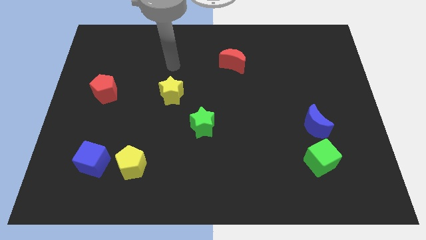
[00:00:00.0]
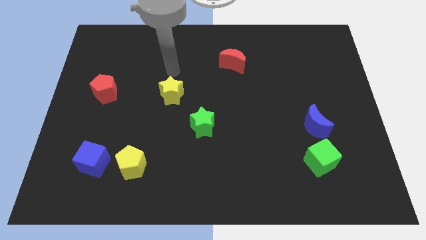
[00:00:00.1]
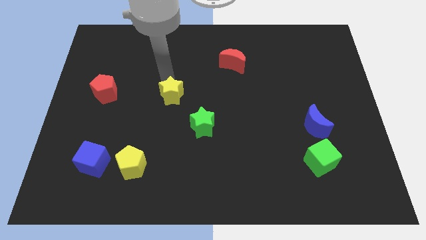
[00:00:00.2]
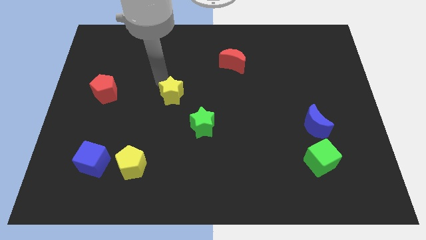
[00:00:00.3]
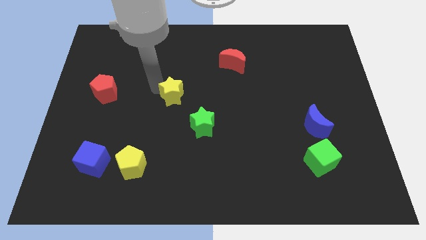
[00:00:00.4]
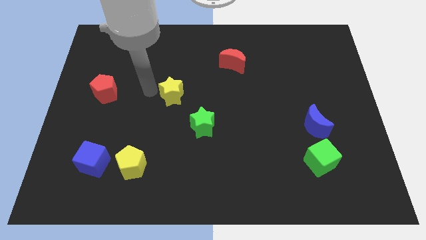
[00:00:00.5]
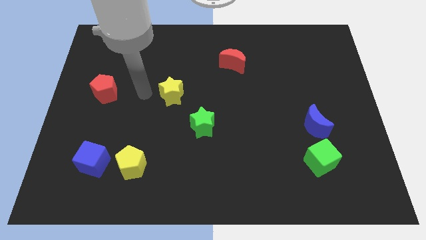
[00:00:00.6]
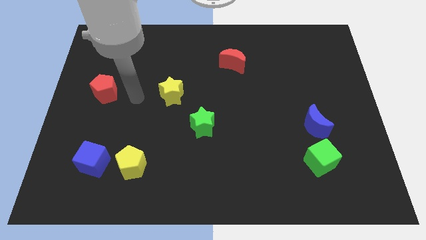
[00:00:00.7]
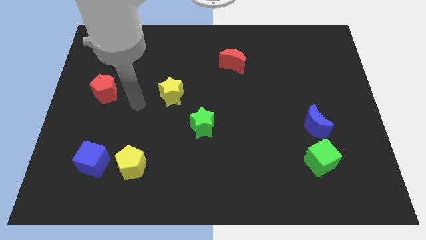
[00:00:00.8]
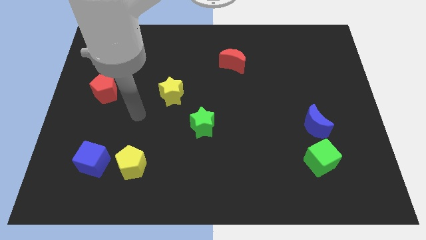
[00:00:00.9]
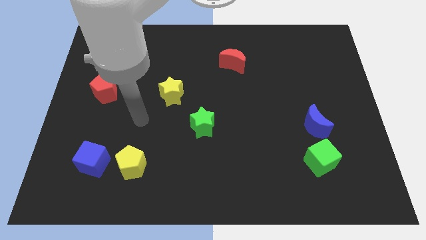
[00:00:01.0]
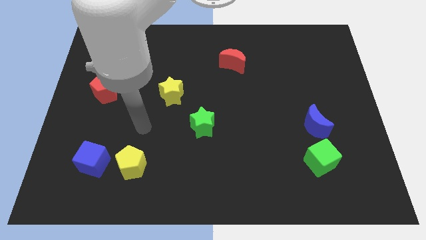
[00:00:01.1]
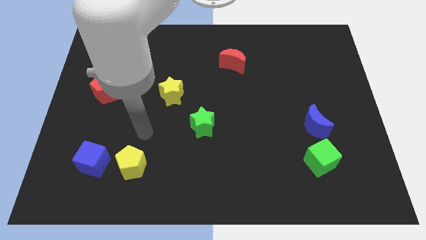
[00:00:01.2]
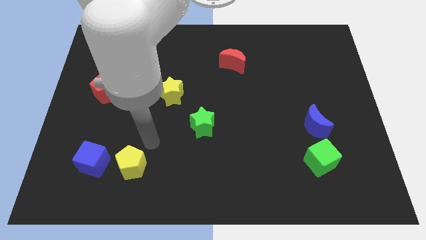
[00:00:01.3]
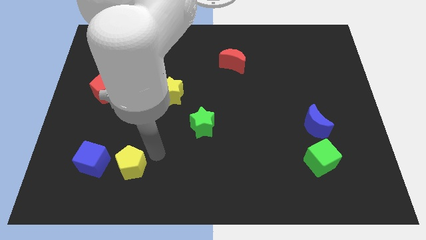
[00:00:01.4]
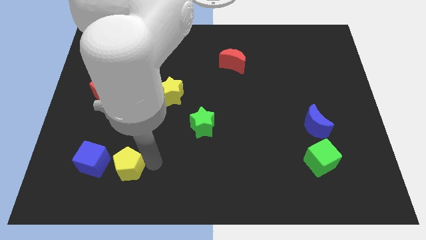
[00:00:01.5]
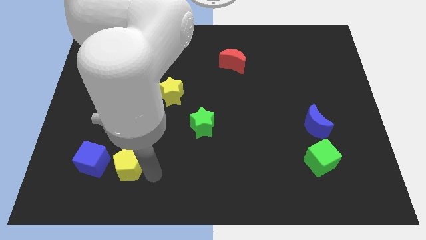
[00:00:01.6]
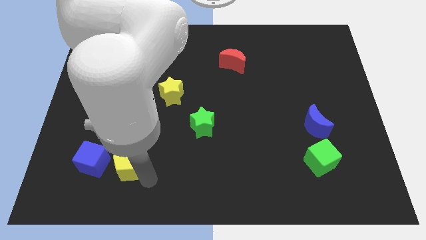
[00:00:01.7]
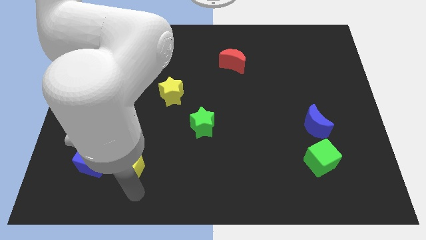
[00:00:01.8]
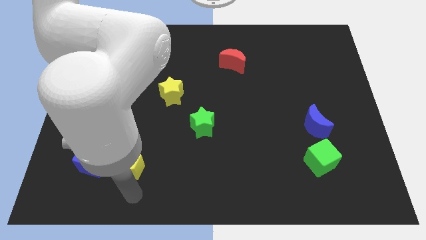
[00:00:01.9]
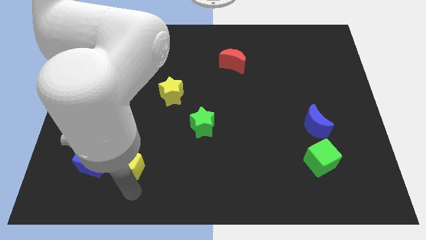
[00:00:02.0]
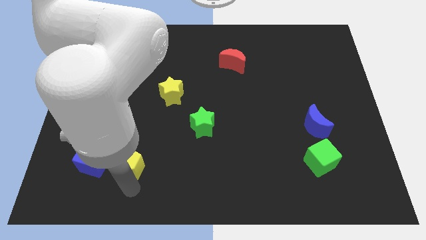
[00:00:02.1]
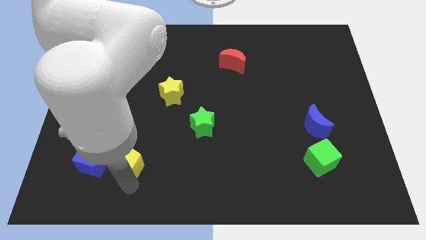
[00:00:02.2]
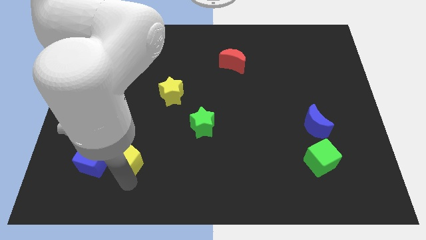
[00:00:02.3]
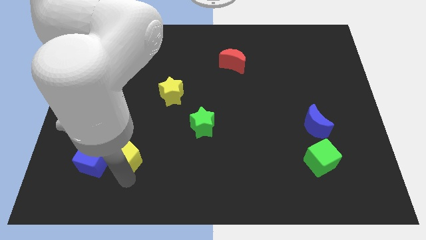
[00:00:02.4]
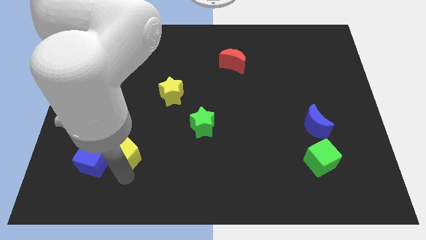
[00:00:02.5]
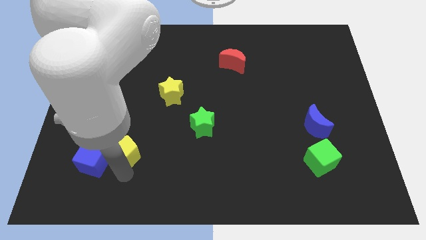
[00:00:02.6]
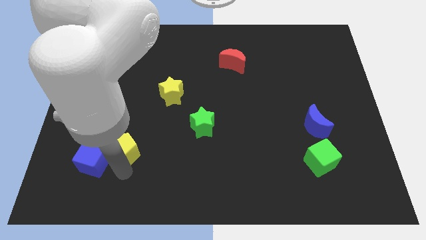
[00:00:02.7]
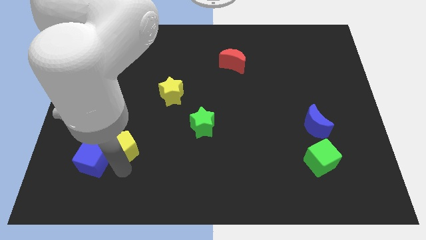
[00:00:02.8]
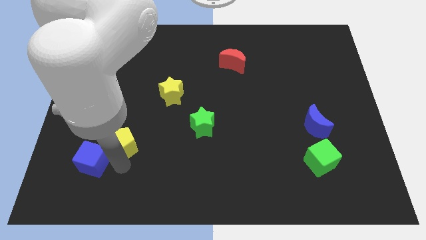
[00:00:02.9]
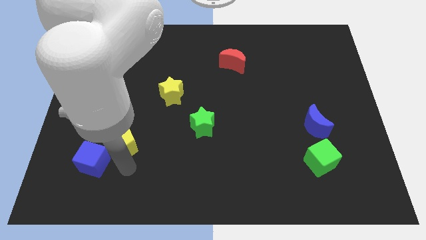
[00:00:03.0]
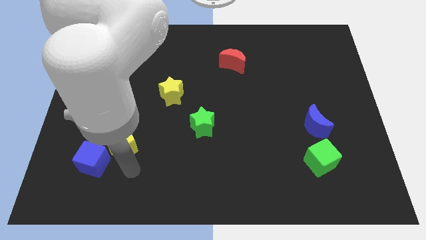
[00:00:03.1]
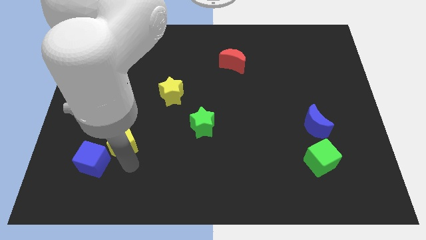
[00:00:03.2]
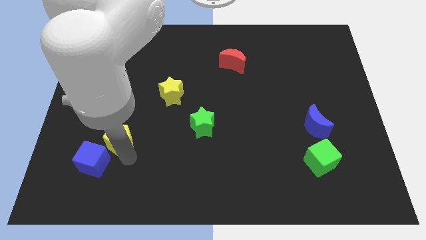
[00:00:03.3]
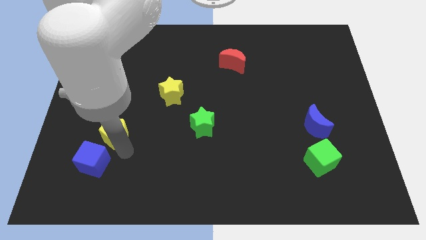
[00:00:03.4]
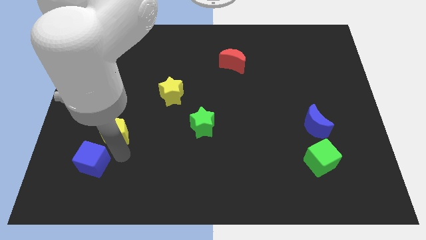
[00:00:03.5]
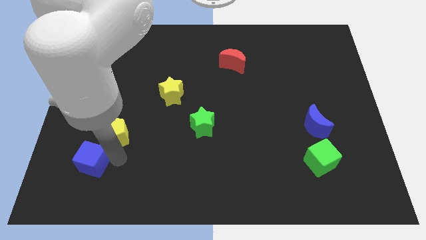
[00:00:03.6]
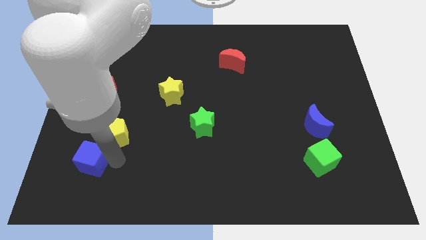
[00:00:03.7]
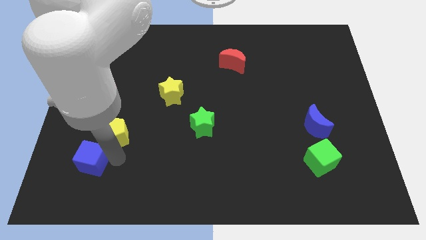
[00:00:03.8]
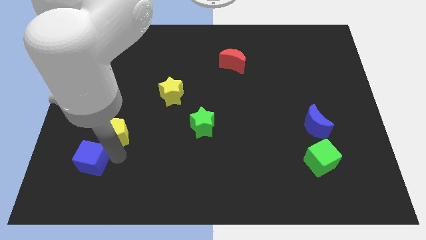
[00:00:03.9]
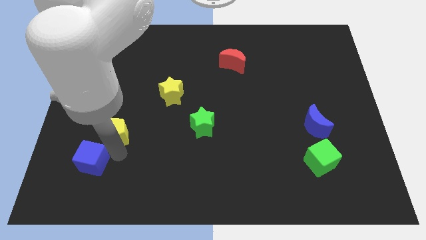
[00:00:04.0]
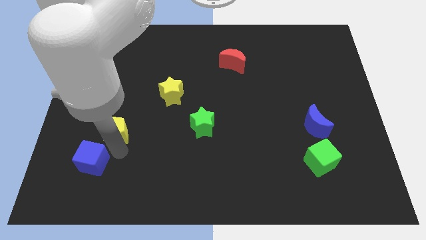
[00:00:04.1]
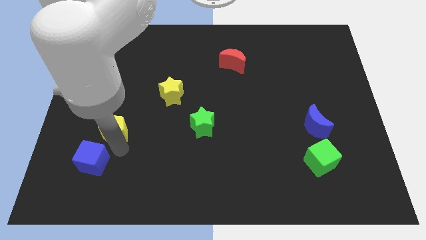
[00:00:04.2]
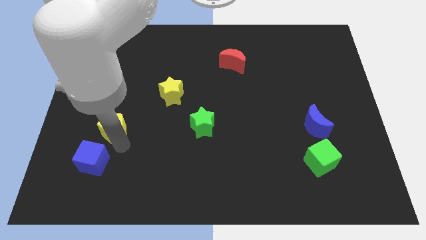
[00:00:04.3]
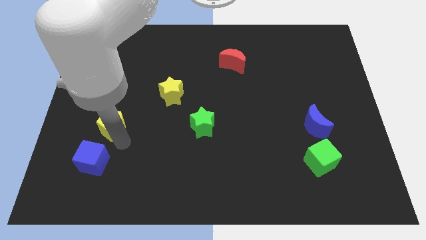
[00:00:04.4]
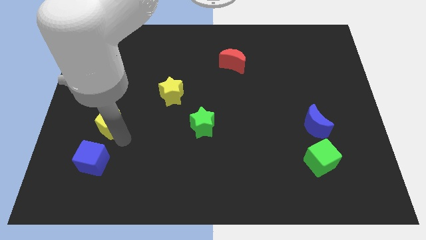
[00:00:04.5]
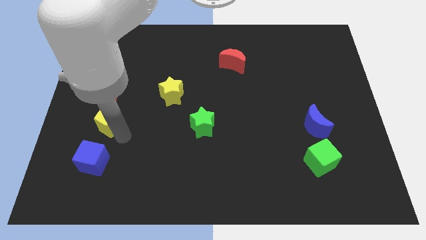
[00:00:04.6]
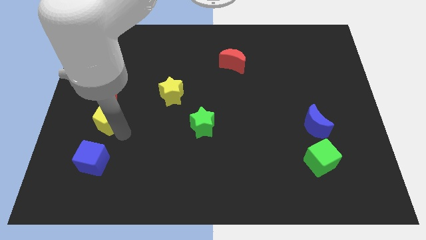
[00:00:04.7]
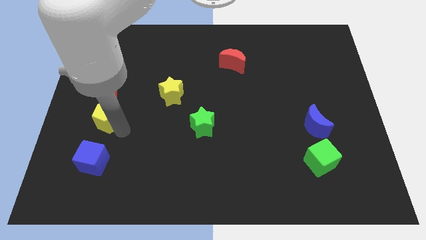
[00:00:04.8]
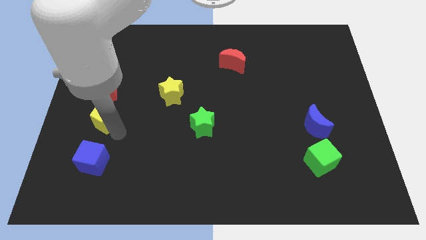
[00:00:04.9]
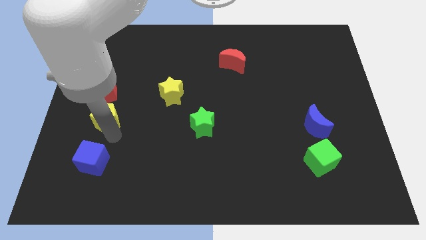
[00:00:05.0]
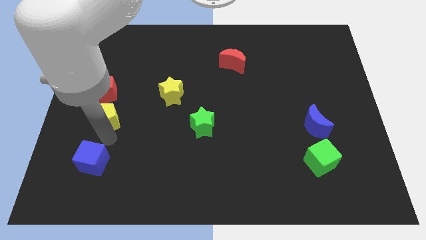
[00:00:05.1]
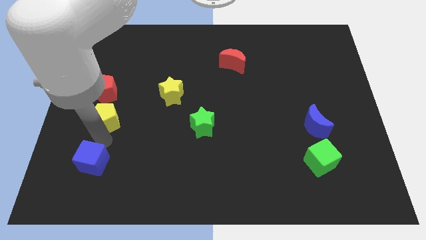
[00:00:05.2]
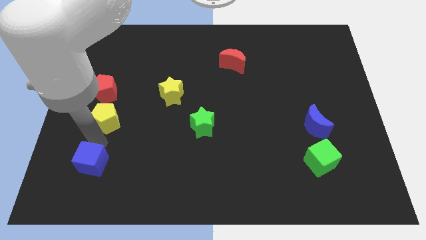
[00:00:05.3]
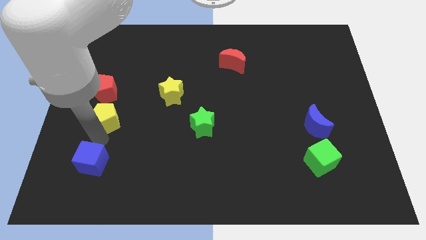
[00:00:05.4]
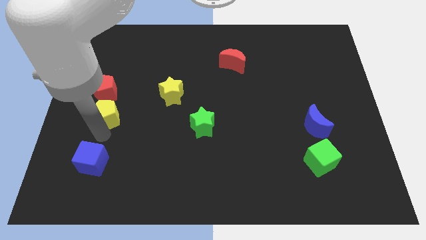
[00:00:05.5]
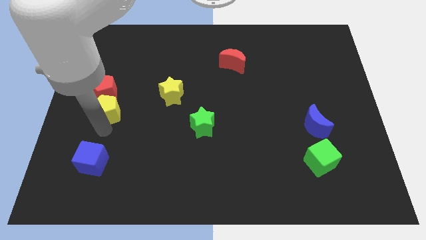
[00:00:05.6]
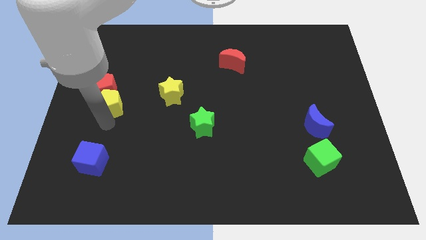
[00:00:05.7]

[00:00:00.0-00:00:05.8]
move the yellow pentagon towards the red pentagon

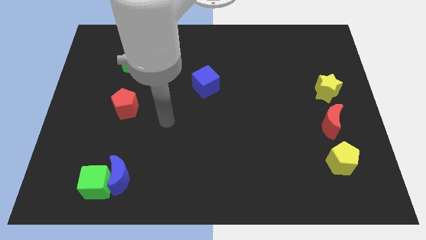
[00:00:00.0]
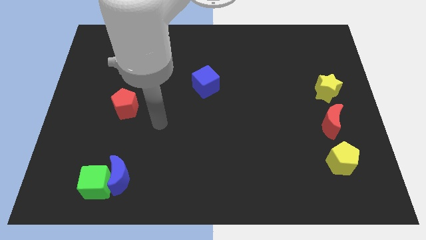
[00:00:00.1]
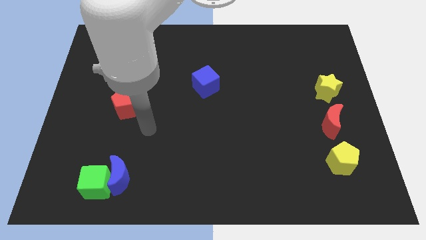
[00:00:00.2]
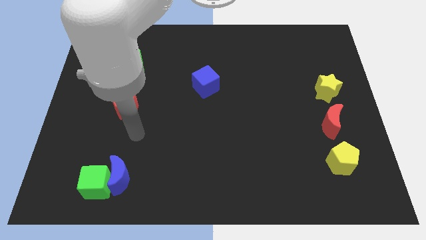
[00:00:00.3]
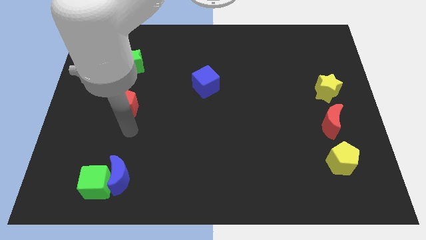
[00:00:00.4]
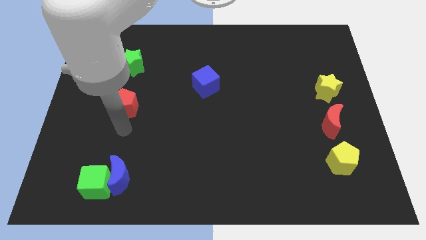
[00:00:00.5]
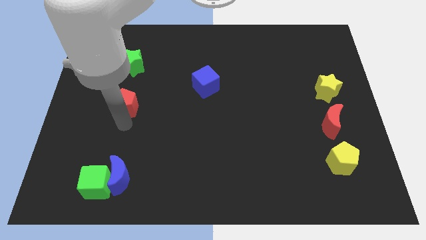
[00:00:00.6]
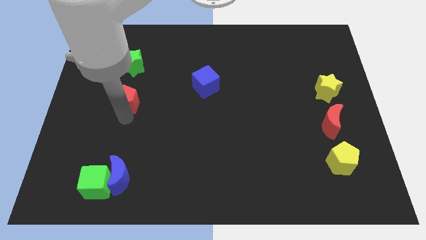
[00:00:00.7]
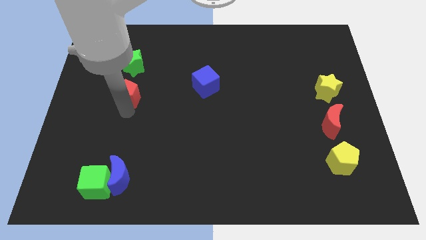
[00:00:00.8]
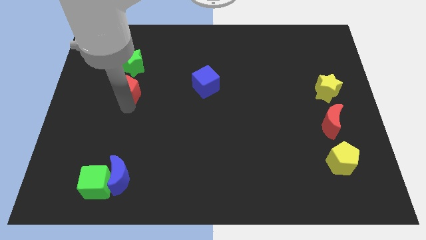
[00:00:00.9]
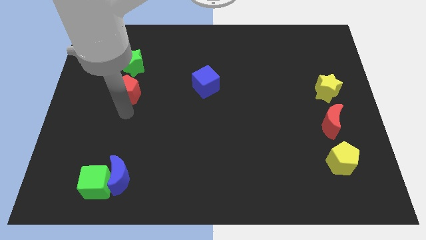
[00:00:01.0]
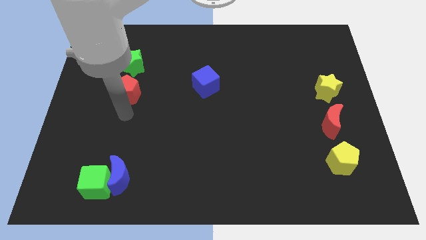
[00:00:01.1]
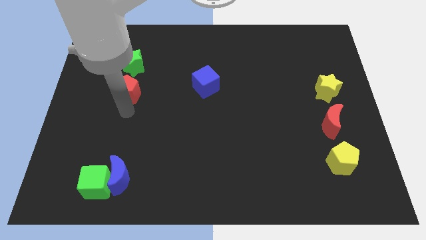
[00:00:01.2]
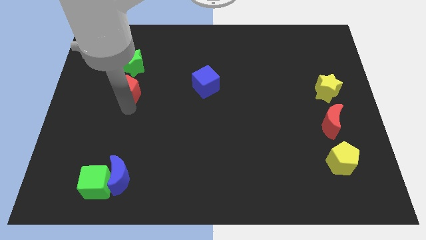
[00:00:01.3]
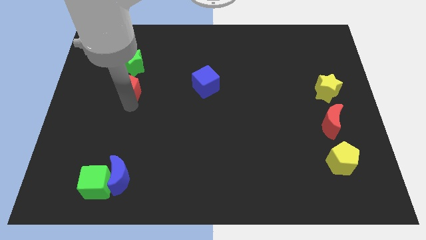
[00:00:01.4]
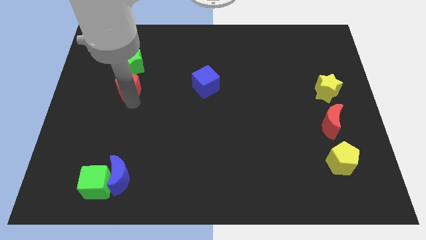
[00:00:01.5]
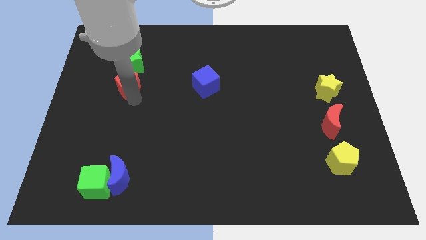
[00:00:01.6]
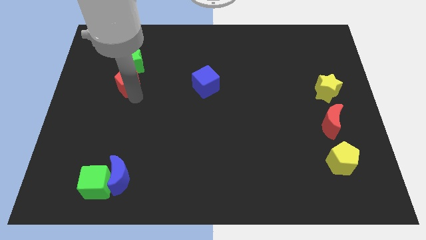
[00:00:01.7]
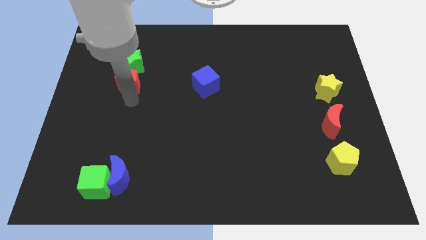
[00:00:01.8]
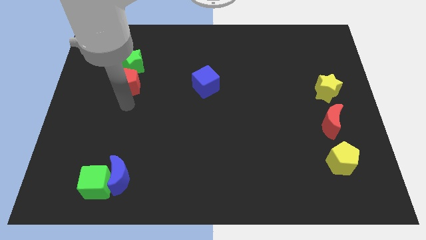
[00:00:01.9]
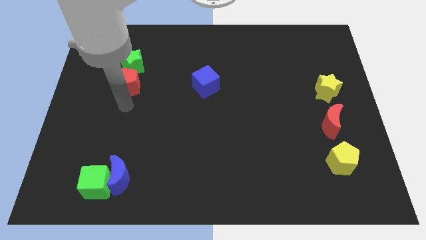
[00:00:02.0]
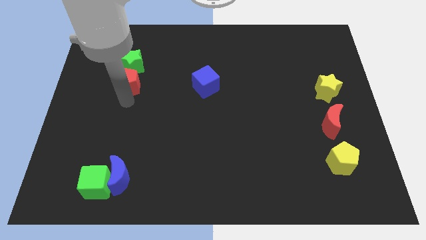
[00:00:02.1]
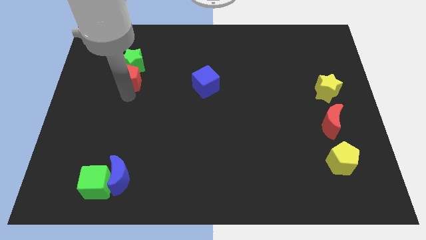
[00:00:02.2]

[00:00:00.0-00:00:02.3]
slide the red pentagon next to the green star
